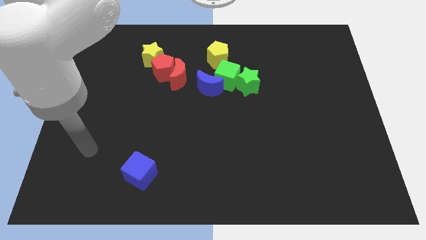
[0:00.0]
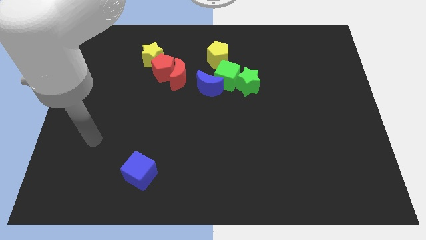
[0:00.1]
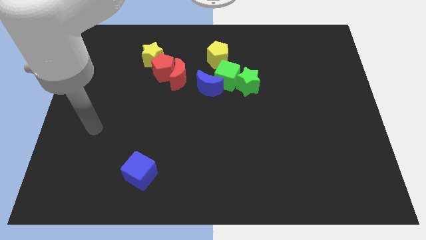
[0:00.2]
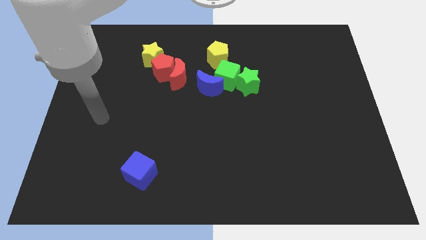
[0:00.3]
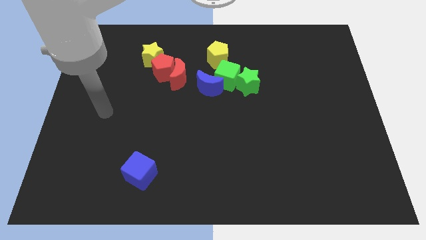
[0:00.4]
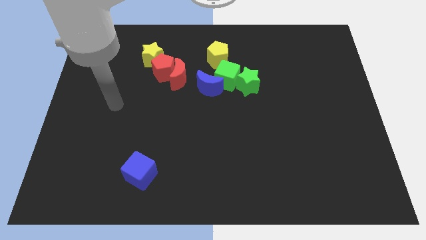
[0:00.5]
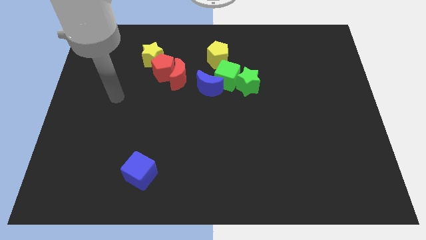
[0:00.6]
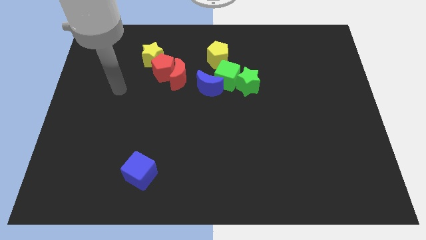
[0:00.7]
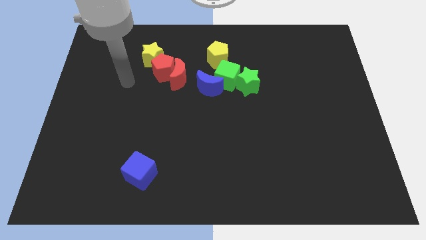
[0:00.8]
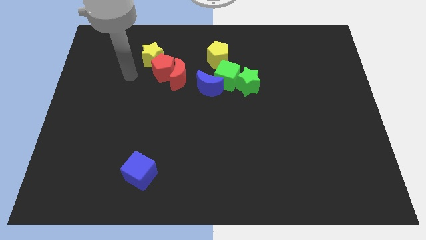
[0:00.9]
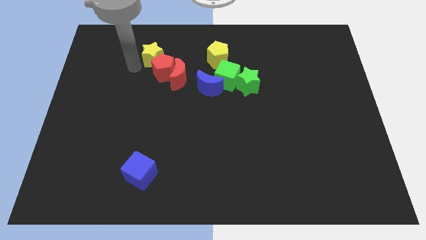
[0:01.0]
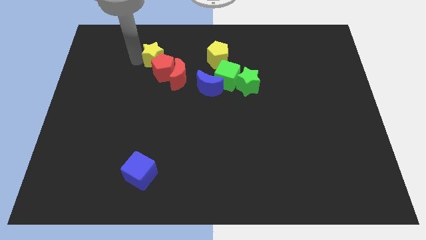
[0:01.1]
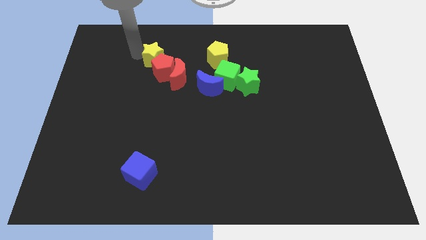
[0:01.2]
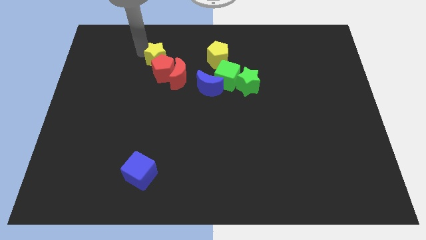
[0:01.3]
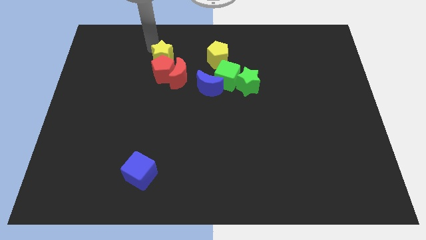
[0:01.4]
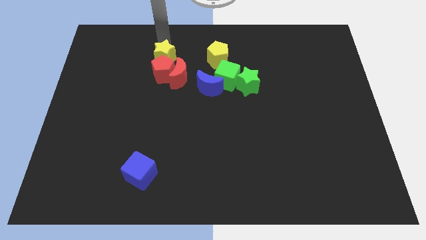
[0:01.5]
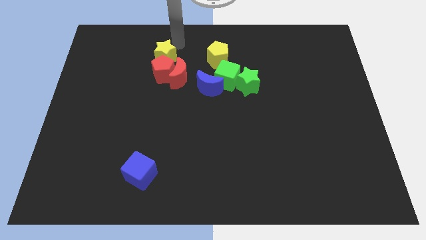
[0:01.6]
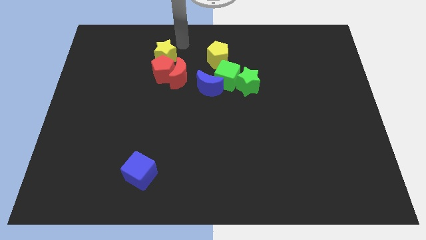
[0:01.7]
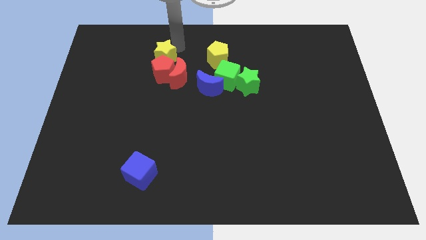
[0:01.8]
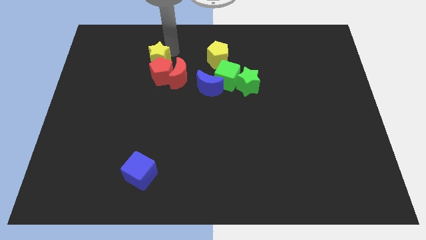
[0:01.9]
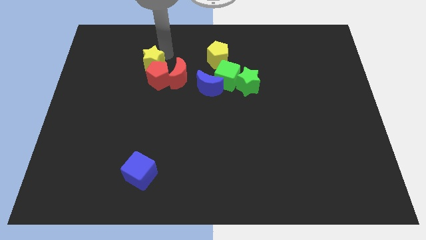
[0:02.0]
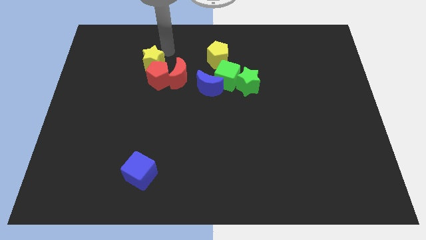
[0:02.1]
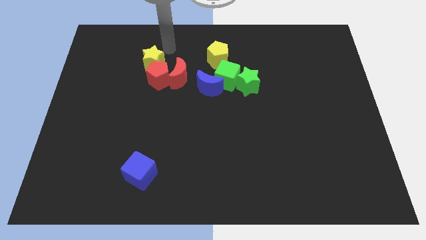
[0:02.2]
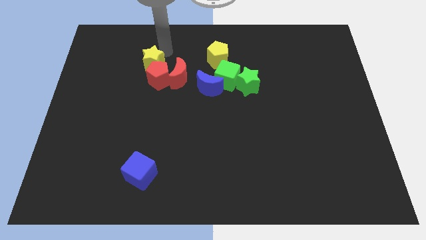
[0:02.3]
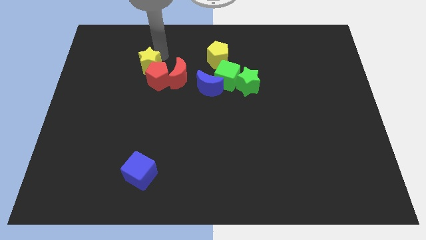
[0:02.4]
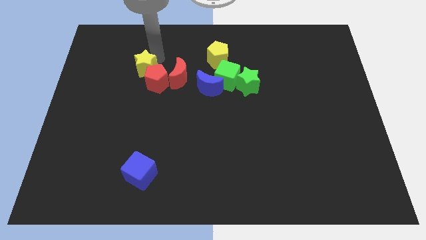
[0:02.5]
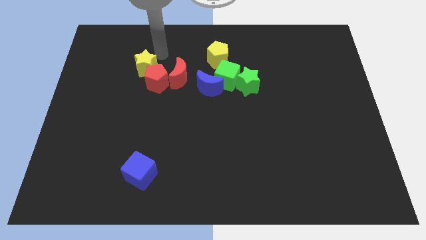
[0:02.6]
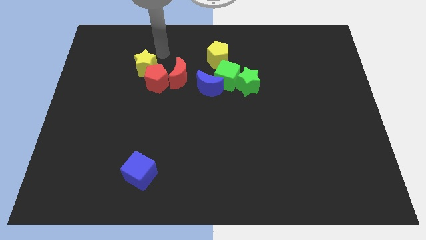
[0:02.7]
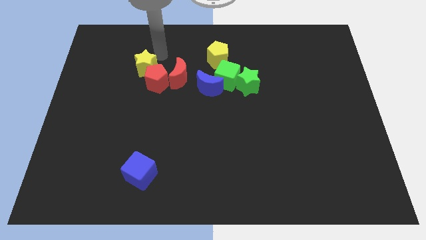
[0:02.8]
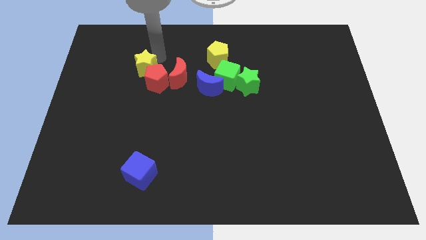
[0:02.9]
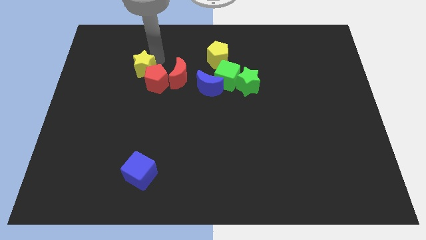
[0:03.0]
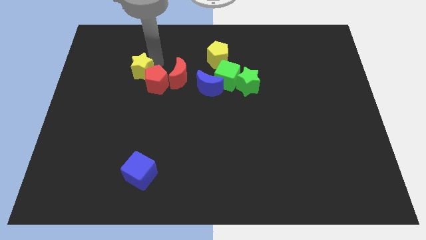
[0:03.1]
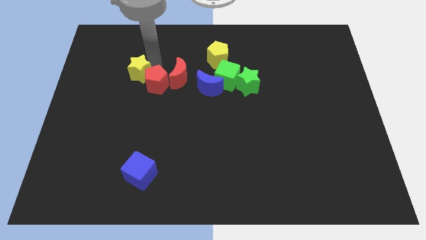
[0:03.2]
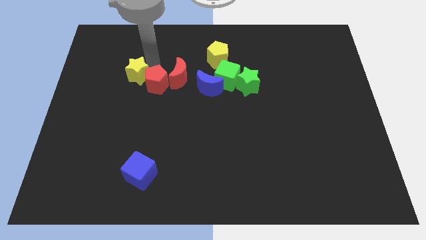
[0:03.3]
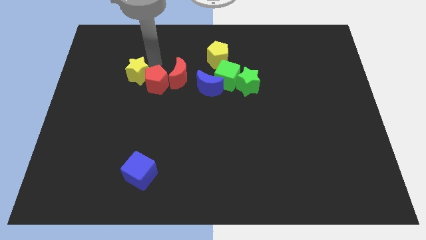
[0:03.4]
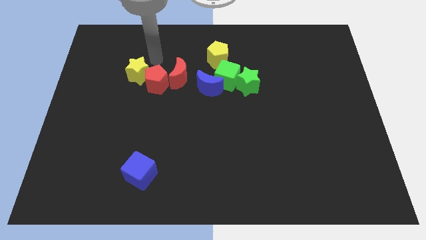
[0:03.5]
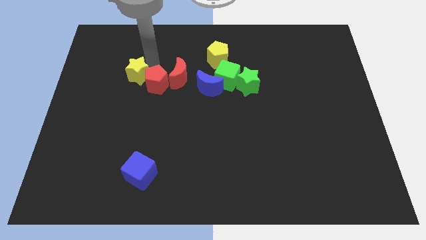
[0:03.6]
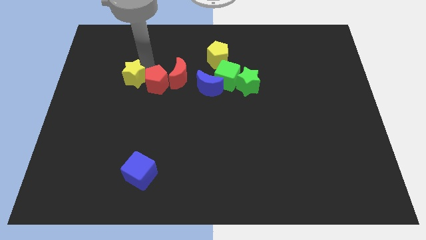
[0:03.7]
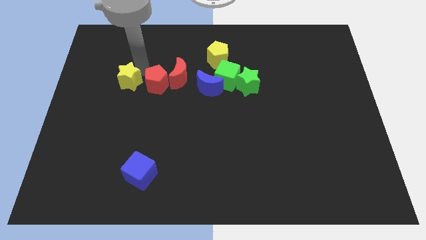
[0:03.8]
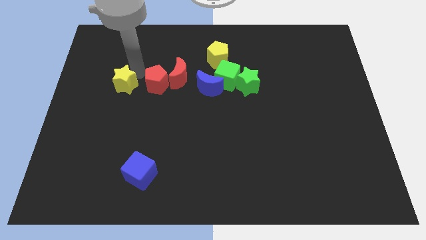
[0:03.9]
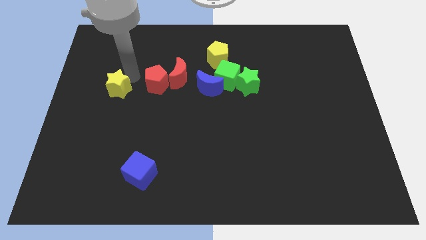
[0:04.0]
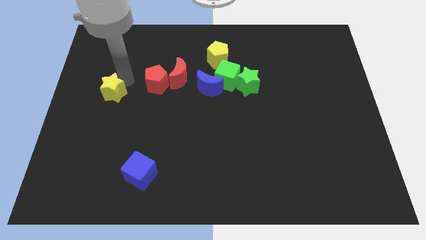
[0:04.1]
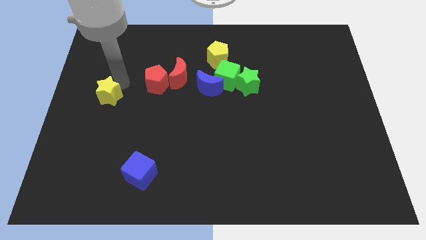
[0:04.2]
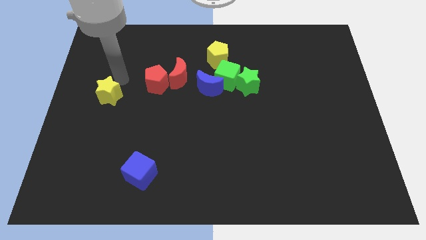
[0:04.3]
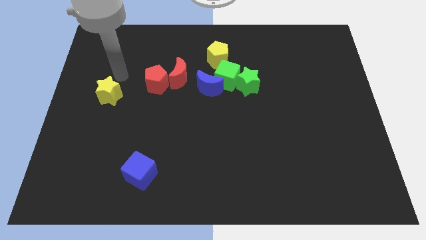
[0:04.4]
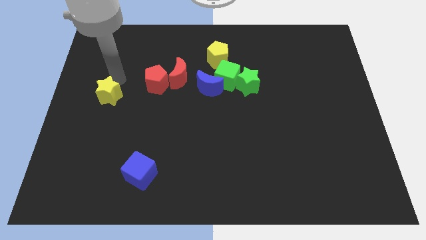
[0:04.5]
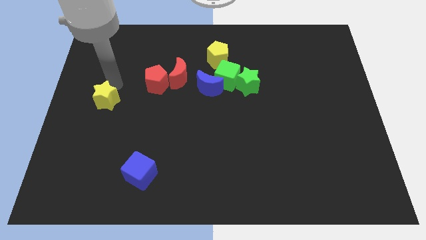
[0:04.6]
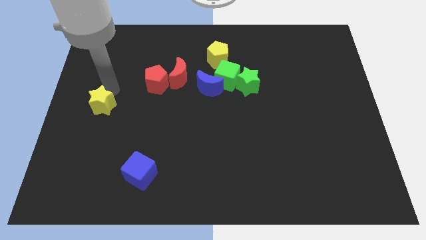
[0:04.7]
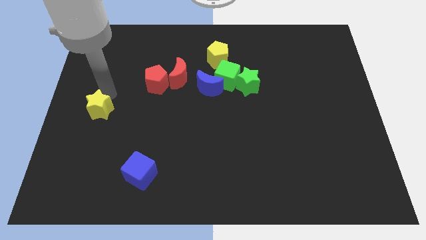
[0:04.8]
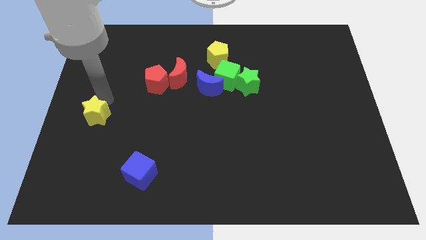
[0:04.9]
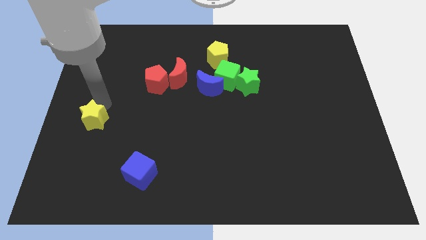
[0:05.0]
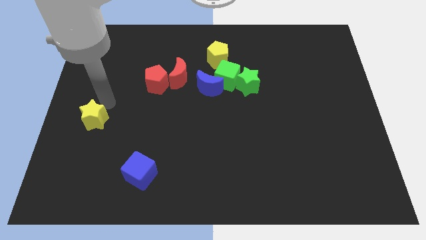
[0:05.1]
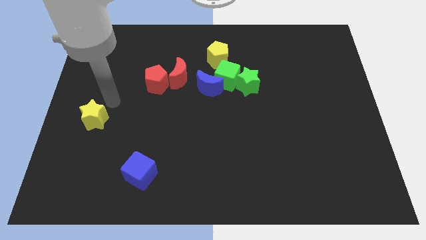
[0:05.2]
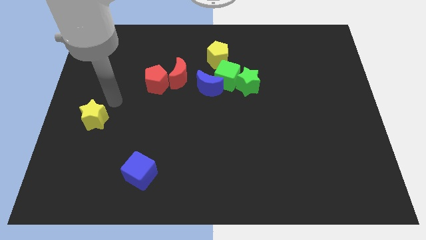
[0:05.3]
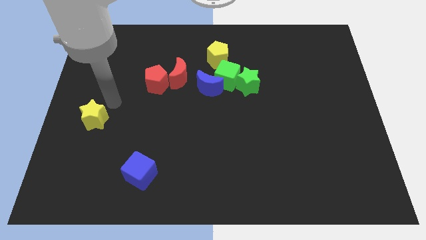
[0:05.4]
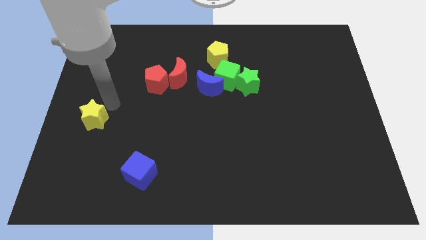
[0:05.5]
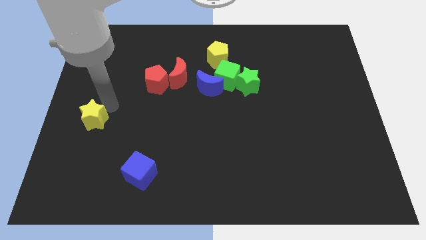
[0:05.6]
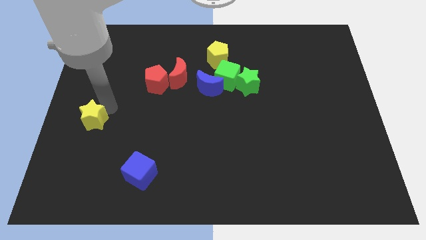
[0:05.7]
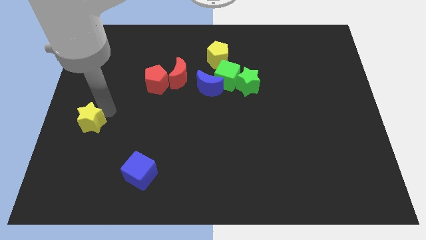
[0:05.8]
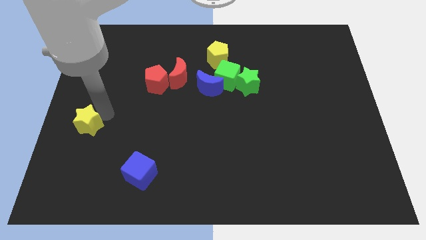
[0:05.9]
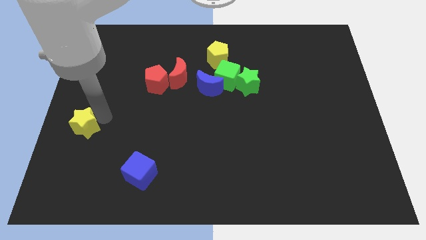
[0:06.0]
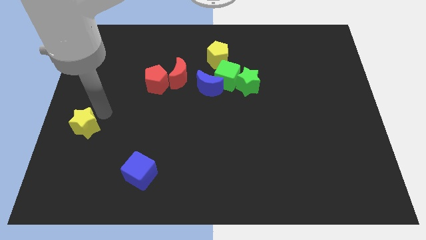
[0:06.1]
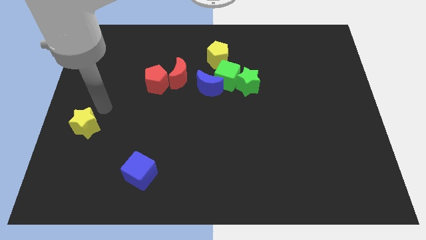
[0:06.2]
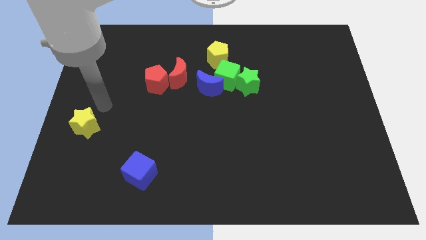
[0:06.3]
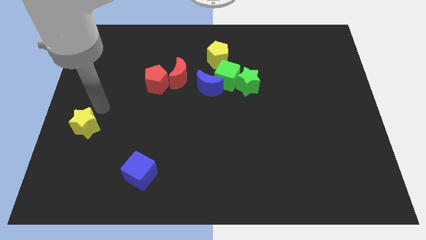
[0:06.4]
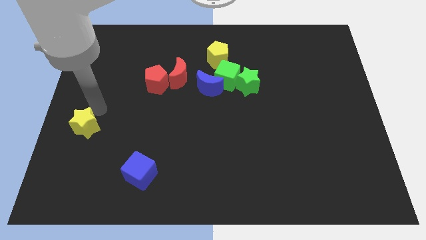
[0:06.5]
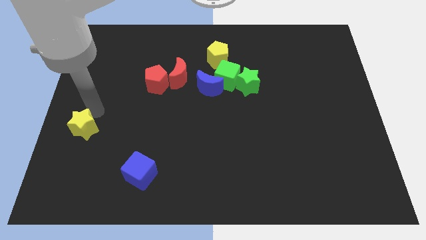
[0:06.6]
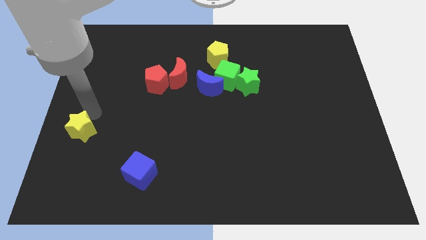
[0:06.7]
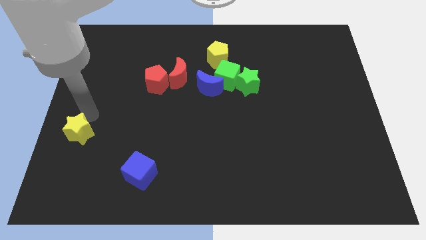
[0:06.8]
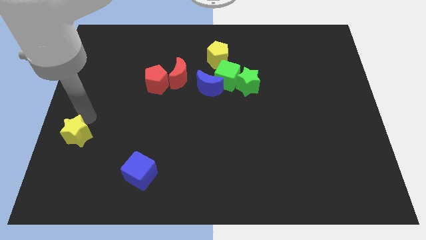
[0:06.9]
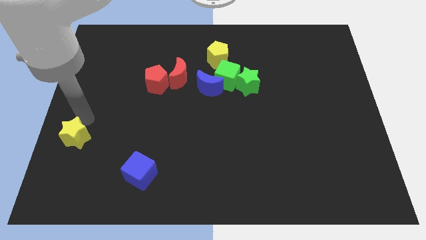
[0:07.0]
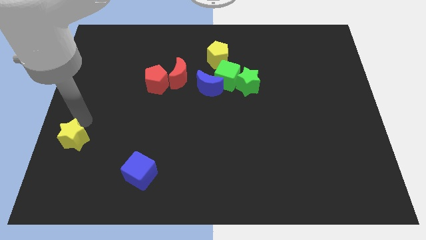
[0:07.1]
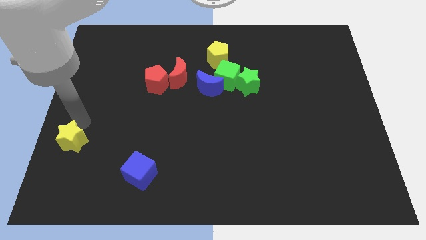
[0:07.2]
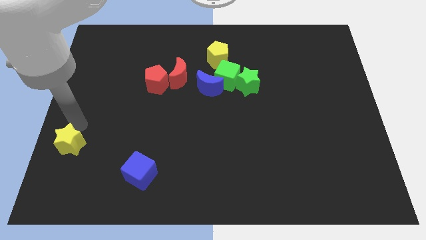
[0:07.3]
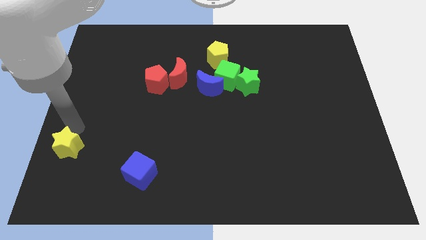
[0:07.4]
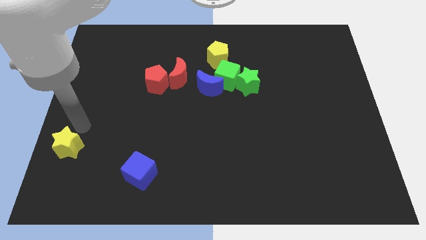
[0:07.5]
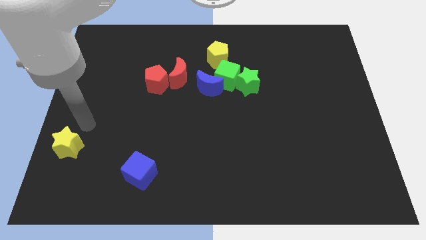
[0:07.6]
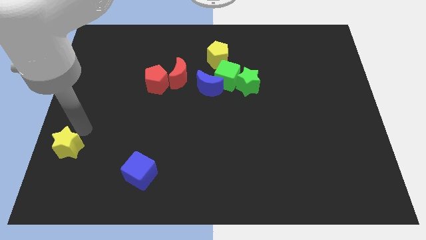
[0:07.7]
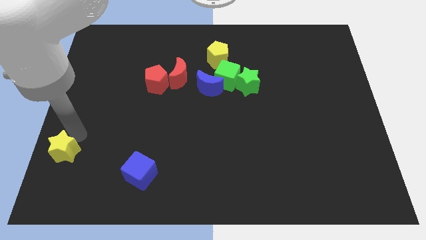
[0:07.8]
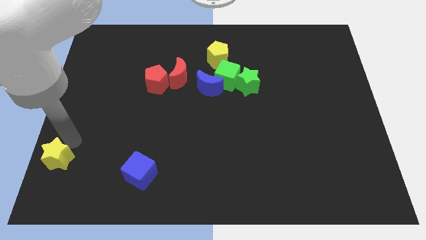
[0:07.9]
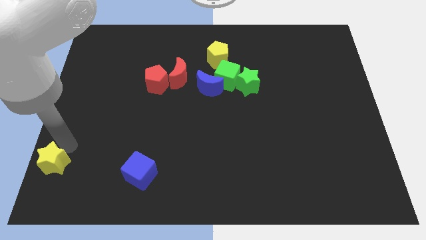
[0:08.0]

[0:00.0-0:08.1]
push the yellow star to the lower left corner
